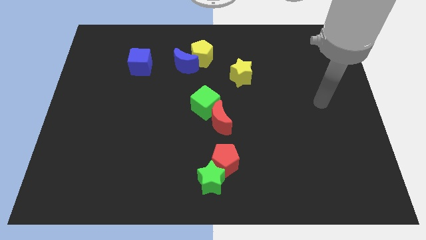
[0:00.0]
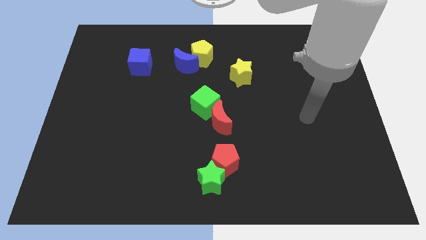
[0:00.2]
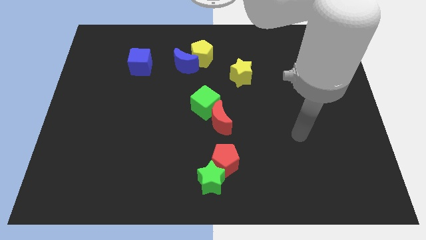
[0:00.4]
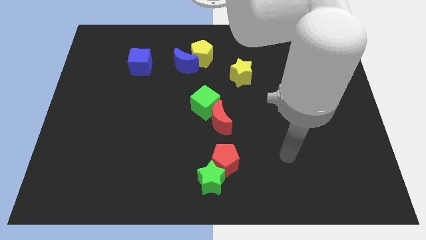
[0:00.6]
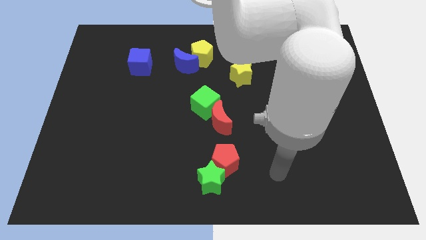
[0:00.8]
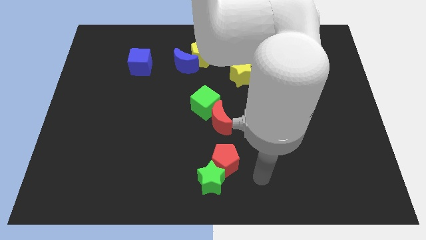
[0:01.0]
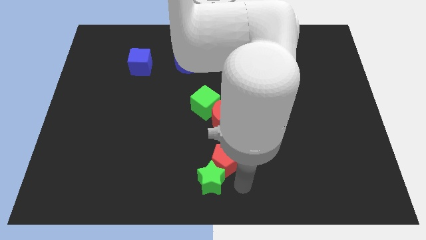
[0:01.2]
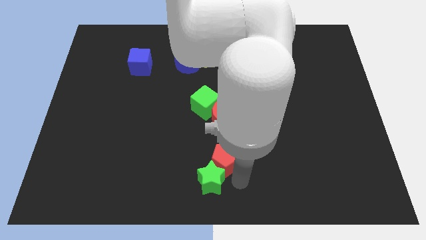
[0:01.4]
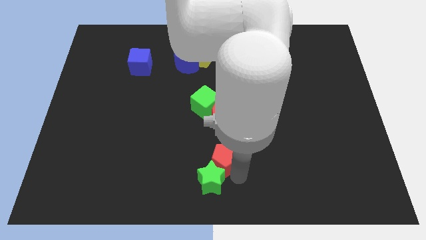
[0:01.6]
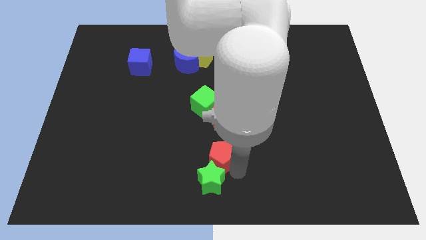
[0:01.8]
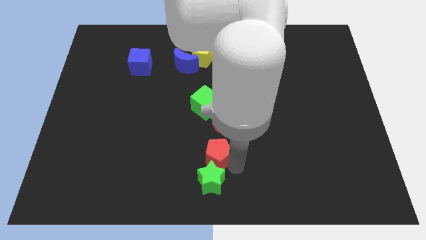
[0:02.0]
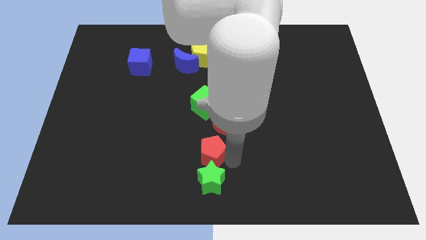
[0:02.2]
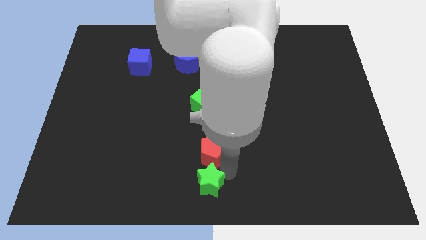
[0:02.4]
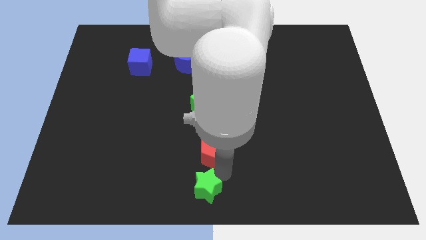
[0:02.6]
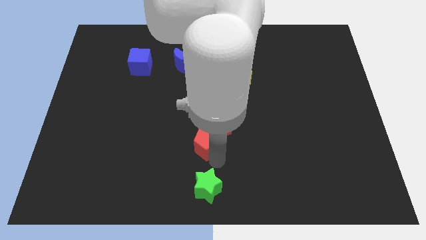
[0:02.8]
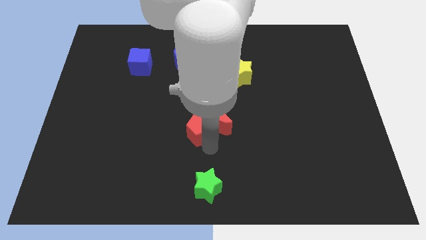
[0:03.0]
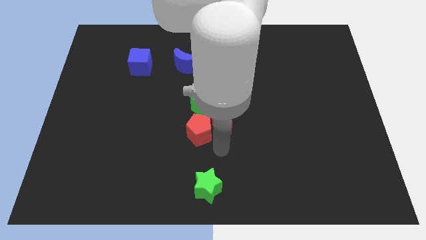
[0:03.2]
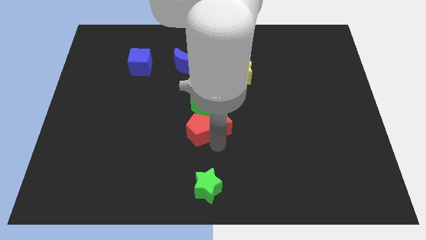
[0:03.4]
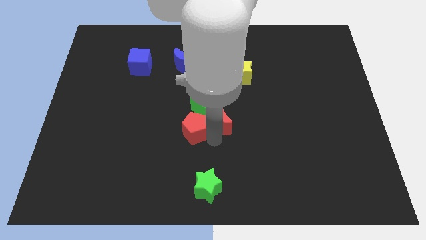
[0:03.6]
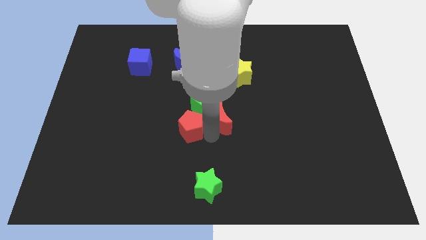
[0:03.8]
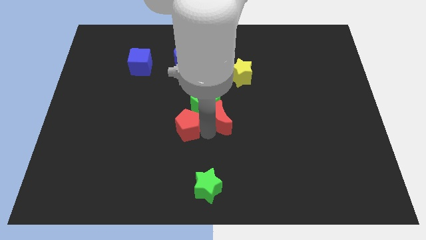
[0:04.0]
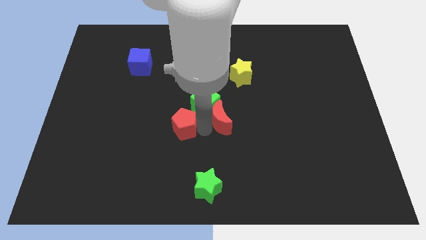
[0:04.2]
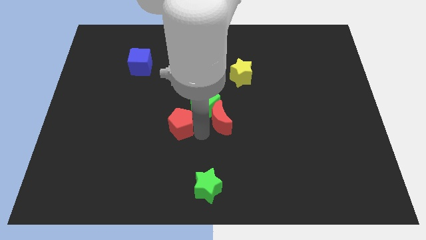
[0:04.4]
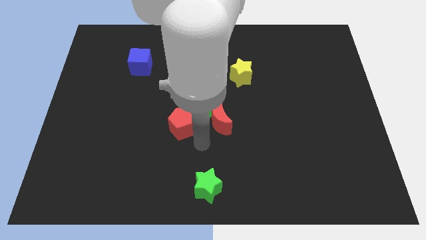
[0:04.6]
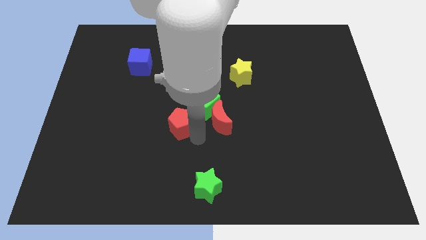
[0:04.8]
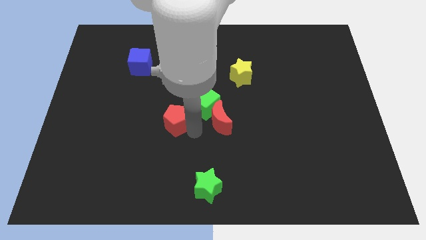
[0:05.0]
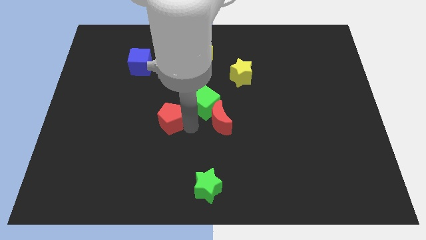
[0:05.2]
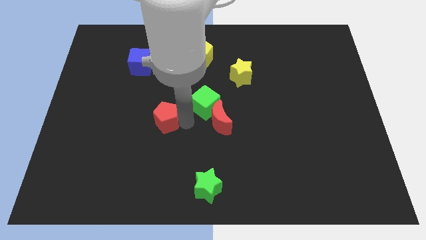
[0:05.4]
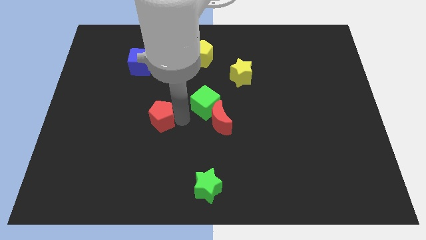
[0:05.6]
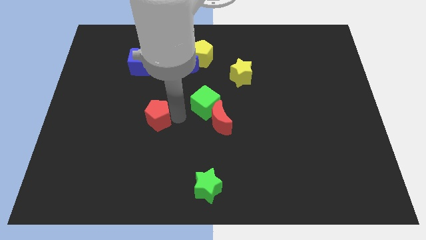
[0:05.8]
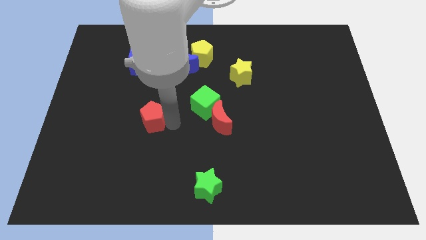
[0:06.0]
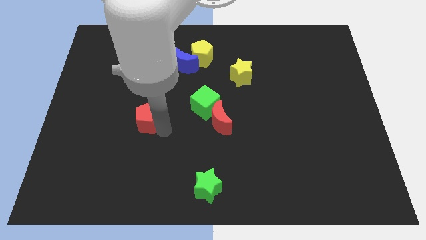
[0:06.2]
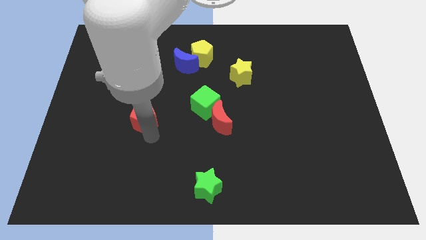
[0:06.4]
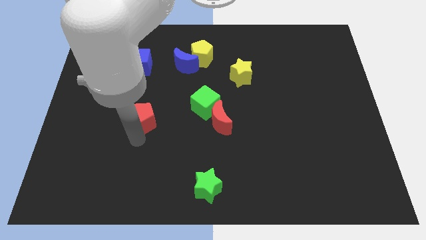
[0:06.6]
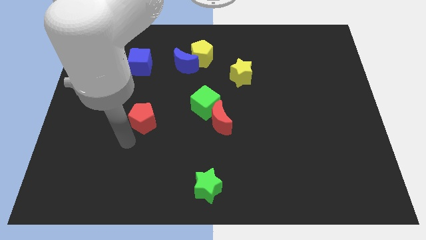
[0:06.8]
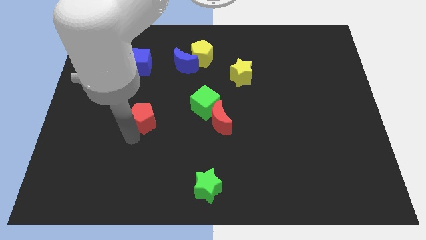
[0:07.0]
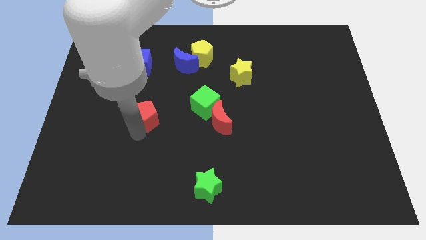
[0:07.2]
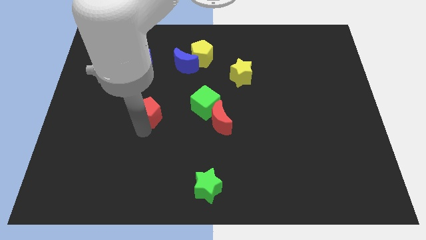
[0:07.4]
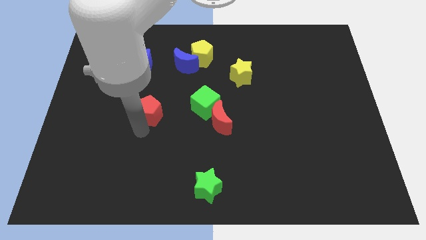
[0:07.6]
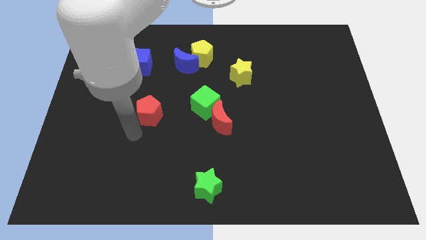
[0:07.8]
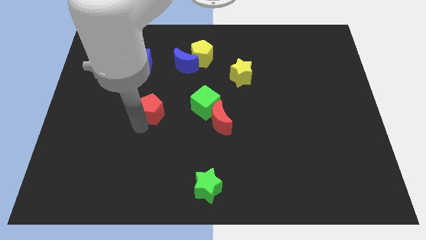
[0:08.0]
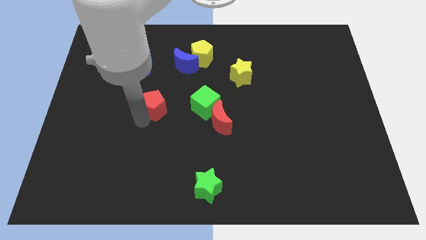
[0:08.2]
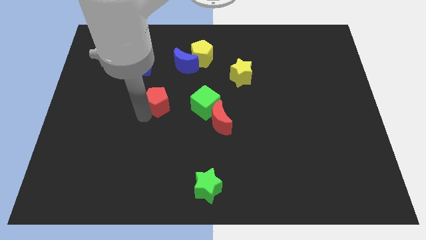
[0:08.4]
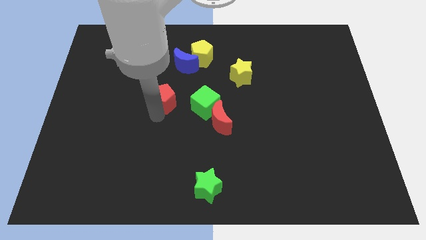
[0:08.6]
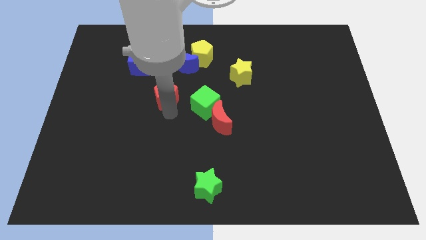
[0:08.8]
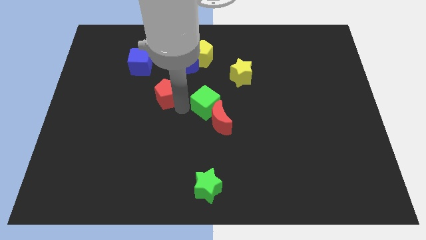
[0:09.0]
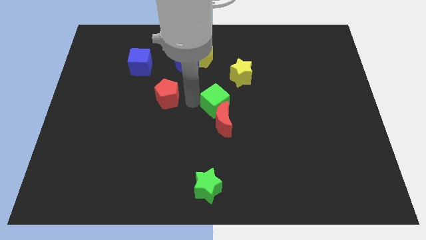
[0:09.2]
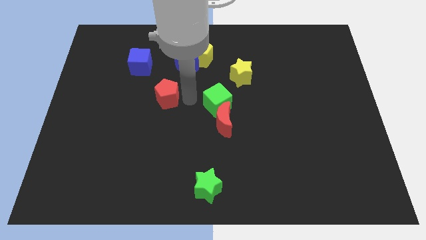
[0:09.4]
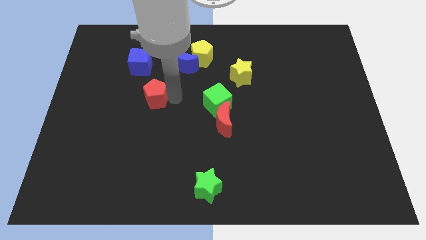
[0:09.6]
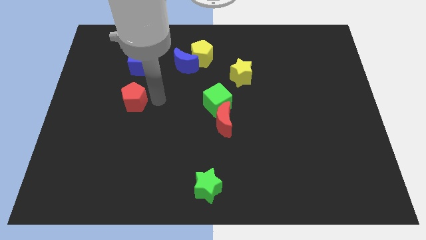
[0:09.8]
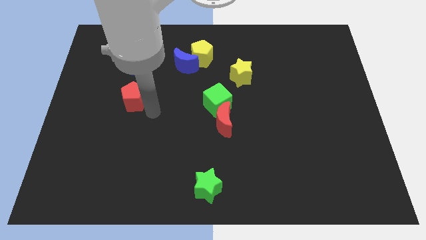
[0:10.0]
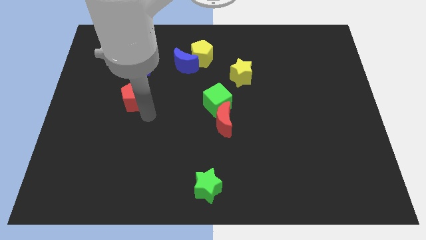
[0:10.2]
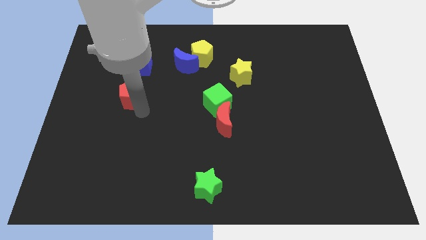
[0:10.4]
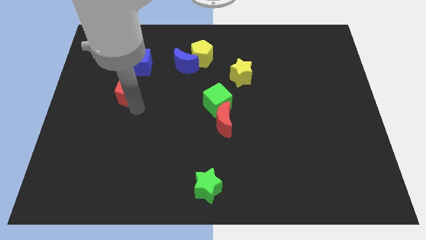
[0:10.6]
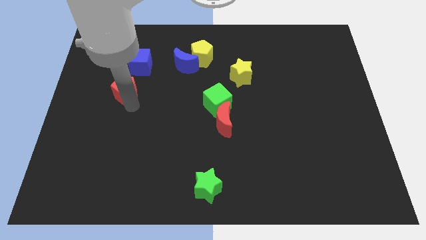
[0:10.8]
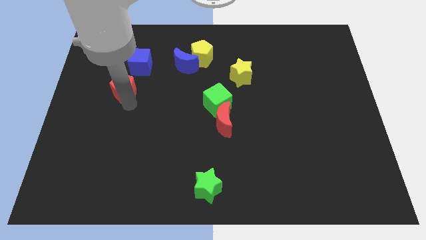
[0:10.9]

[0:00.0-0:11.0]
push the red pentagon to the bottom left of the blue cube

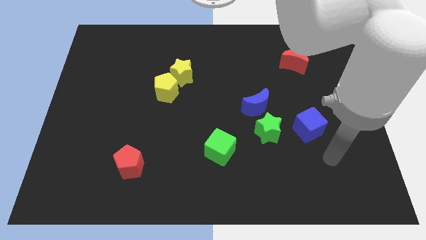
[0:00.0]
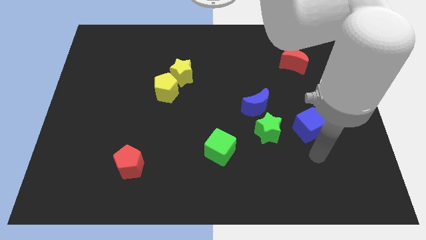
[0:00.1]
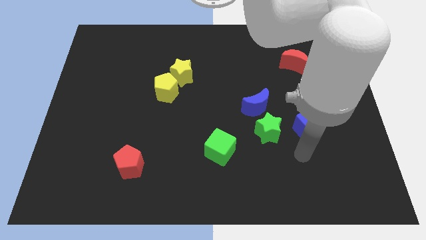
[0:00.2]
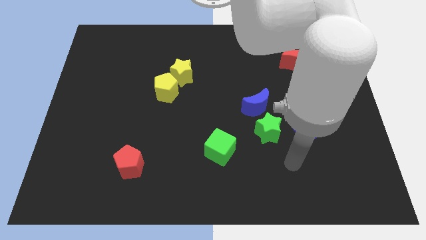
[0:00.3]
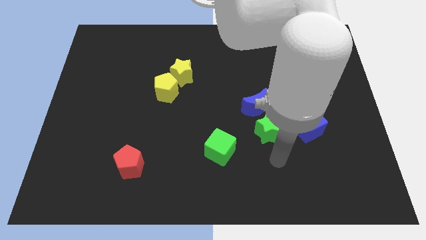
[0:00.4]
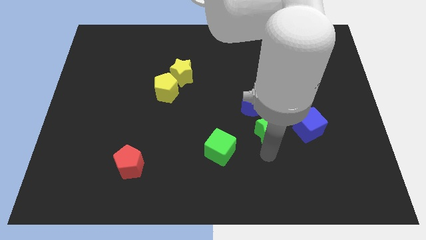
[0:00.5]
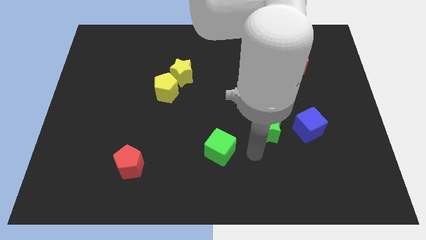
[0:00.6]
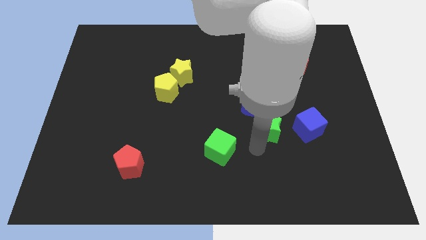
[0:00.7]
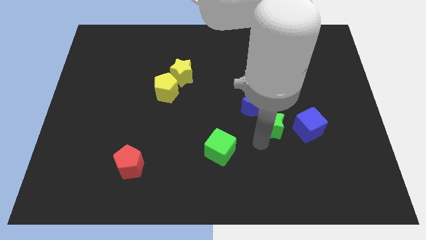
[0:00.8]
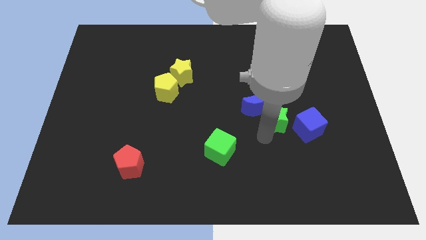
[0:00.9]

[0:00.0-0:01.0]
slide the green star to the top left of the blue cube
